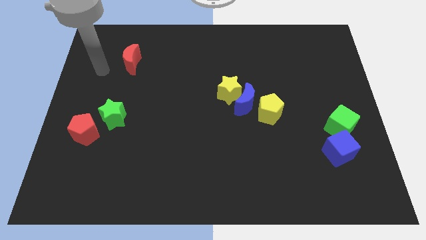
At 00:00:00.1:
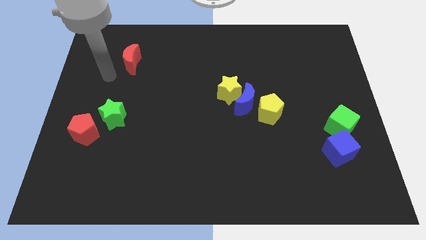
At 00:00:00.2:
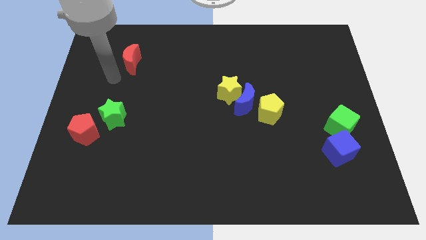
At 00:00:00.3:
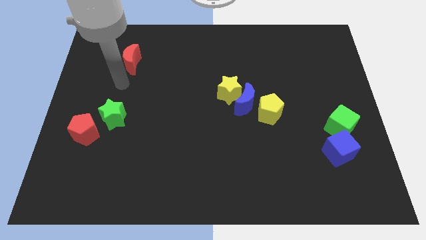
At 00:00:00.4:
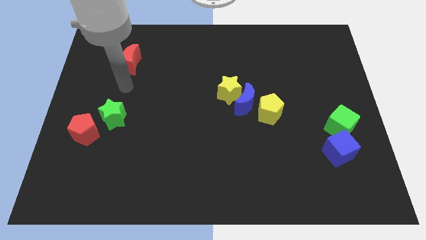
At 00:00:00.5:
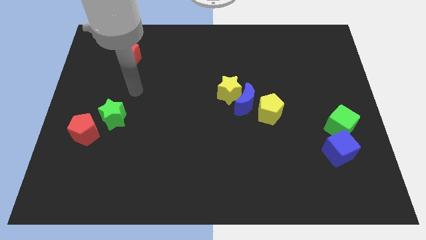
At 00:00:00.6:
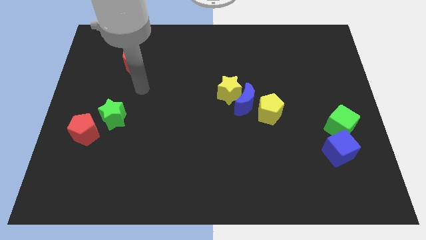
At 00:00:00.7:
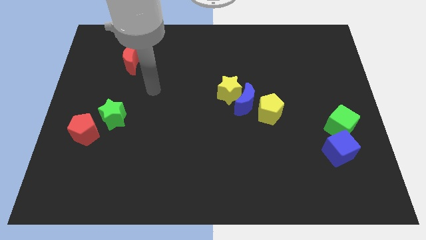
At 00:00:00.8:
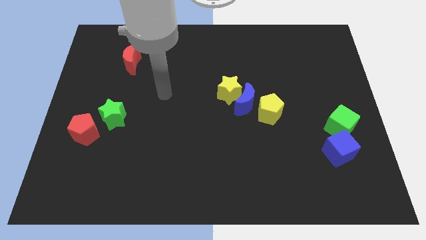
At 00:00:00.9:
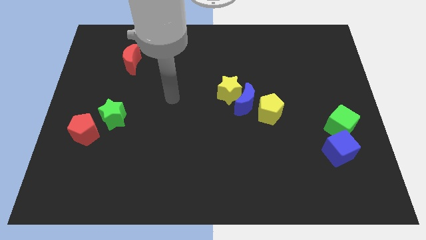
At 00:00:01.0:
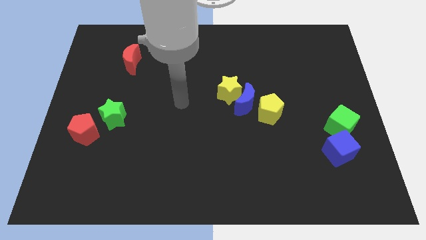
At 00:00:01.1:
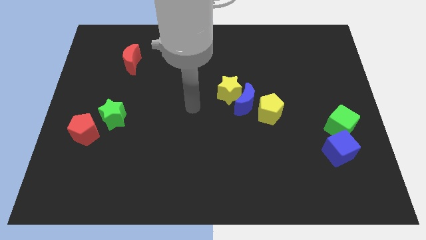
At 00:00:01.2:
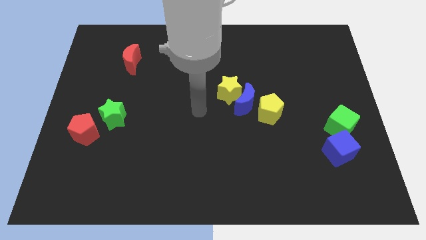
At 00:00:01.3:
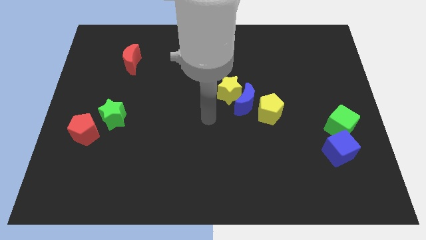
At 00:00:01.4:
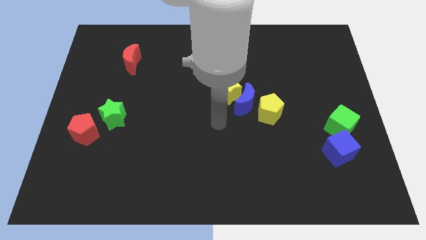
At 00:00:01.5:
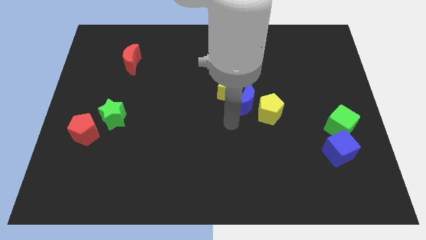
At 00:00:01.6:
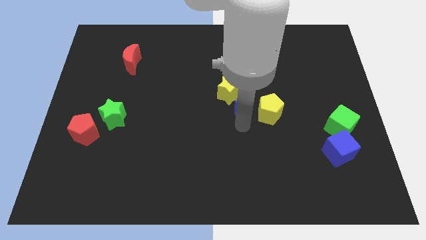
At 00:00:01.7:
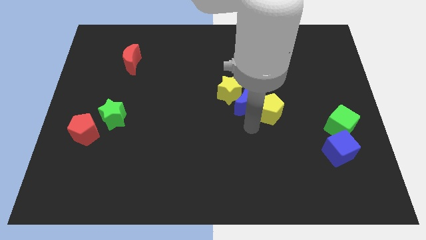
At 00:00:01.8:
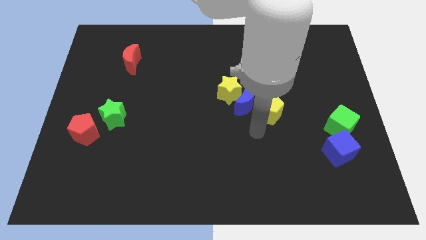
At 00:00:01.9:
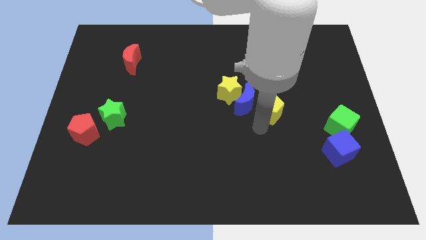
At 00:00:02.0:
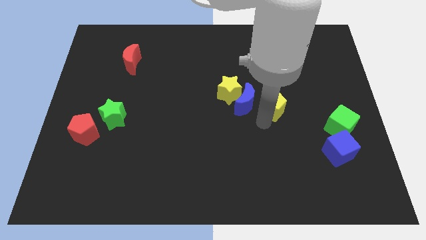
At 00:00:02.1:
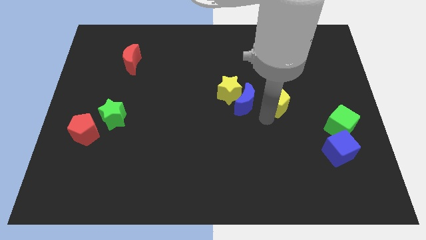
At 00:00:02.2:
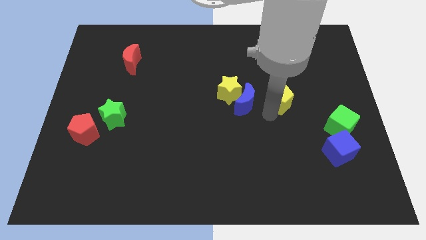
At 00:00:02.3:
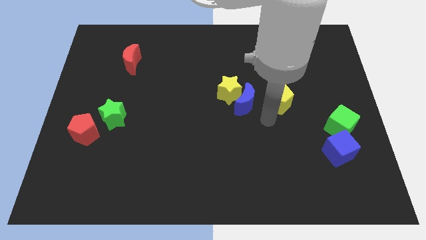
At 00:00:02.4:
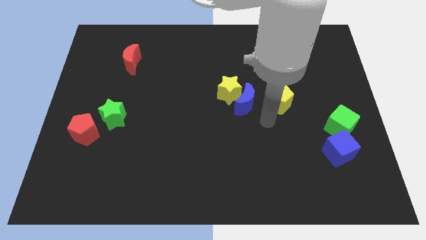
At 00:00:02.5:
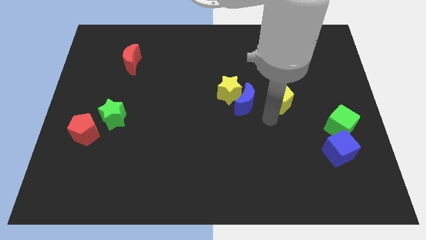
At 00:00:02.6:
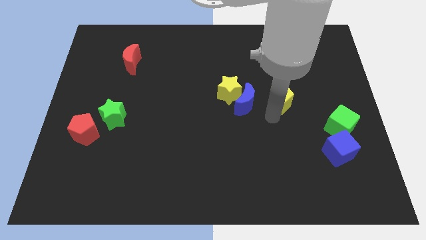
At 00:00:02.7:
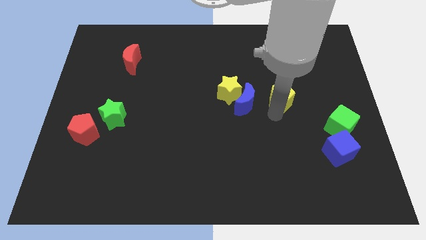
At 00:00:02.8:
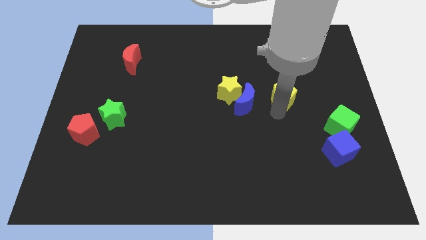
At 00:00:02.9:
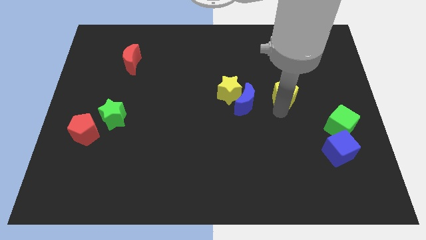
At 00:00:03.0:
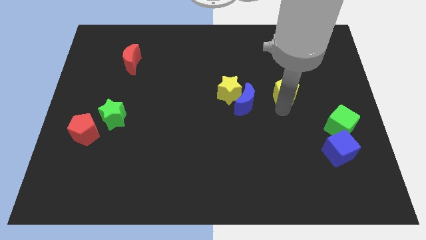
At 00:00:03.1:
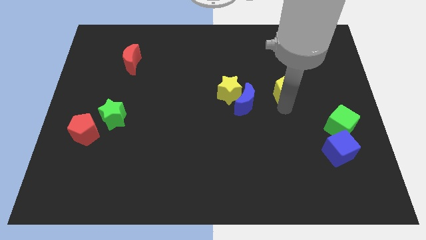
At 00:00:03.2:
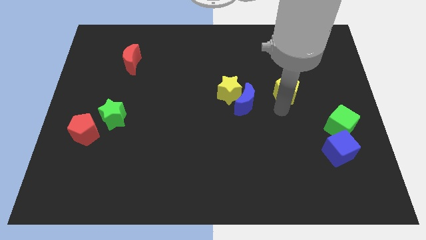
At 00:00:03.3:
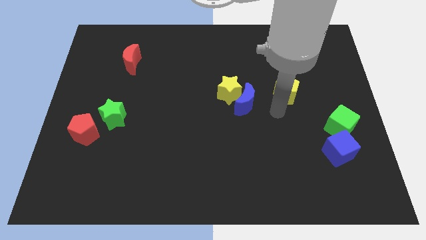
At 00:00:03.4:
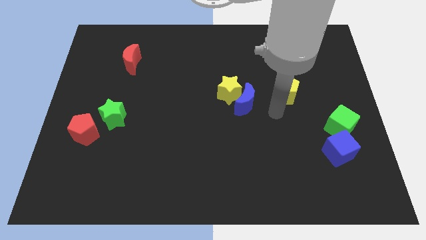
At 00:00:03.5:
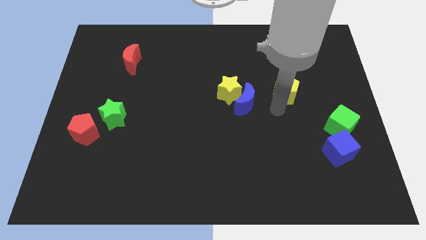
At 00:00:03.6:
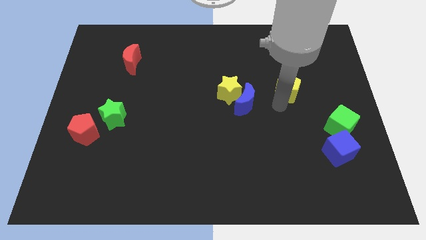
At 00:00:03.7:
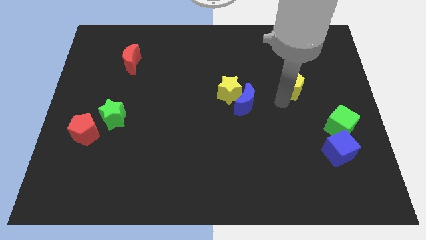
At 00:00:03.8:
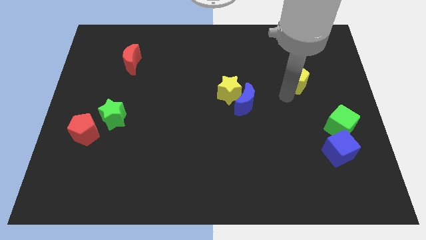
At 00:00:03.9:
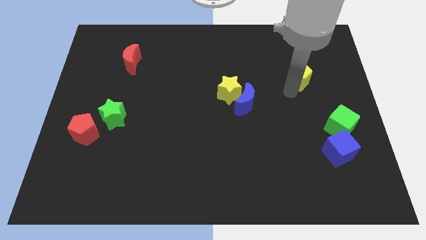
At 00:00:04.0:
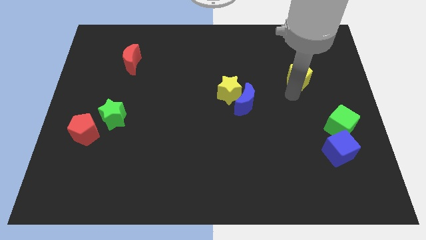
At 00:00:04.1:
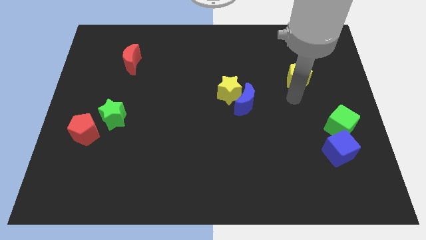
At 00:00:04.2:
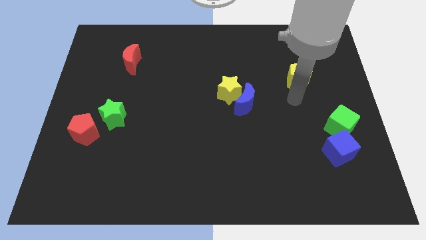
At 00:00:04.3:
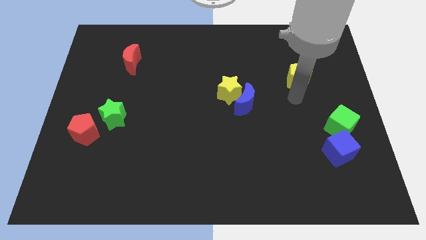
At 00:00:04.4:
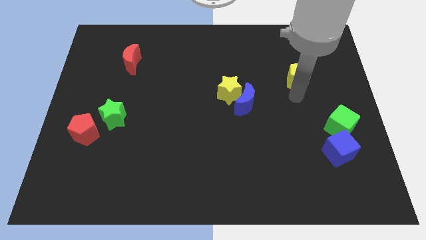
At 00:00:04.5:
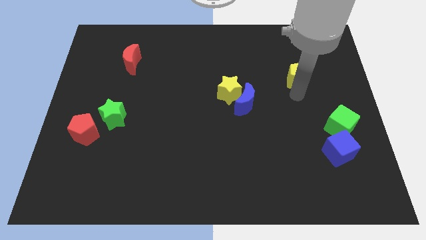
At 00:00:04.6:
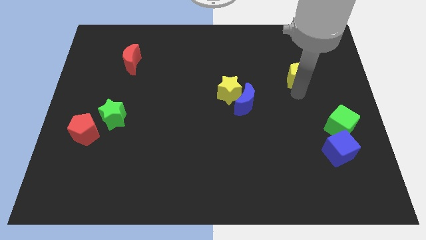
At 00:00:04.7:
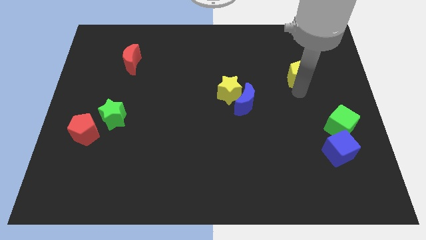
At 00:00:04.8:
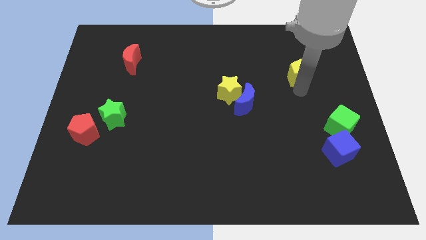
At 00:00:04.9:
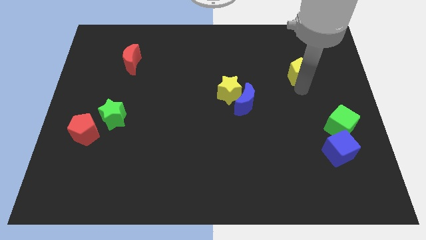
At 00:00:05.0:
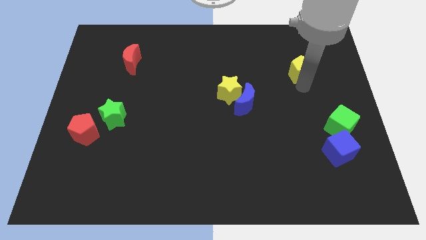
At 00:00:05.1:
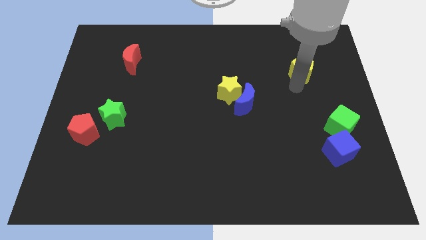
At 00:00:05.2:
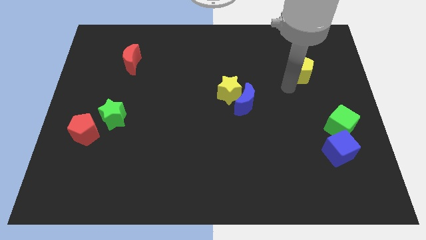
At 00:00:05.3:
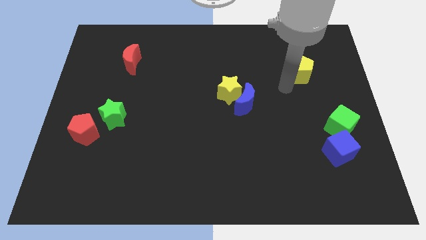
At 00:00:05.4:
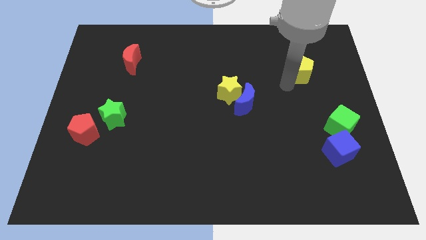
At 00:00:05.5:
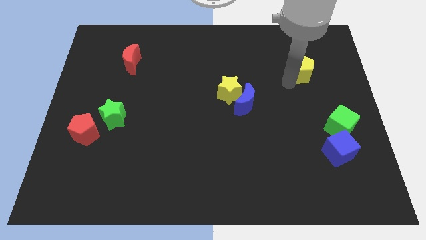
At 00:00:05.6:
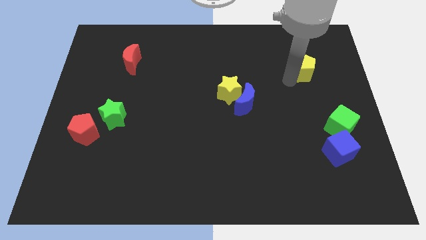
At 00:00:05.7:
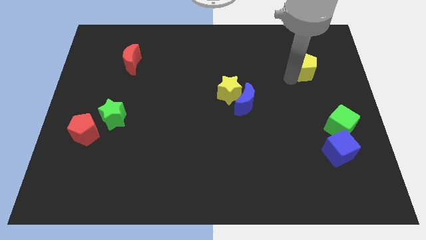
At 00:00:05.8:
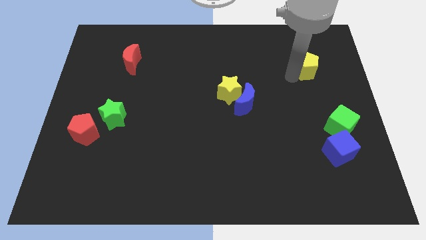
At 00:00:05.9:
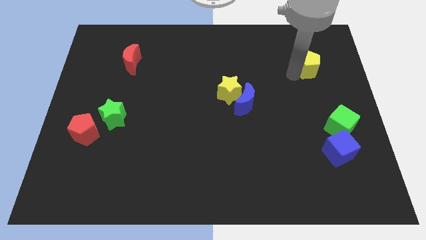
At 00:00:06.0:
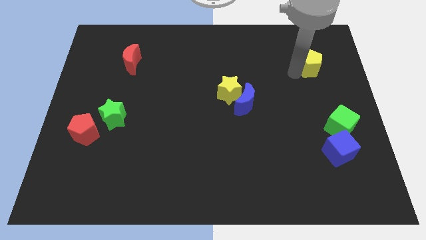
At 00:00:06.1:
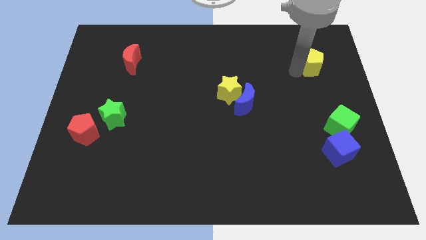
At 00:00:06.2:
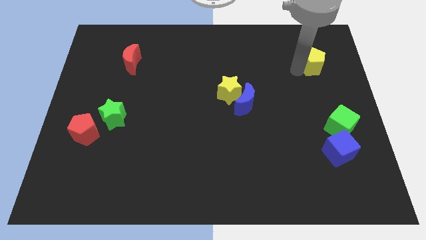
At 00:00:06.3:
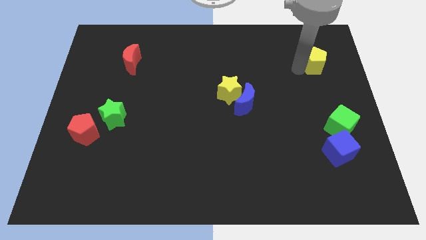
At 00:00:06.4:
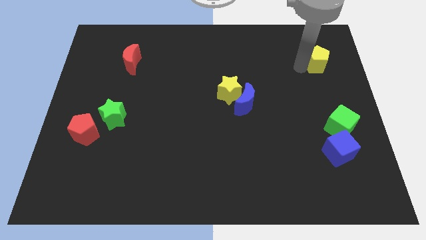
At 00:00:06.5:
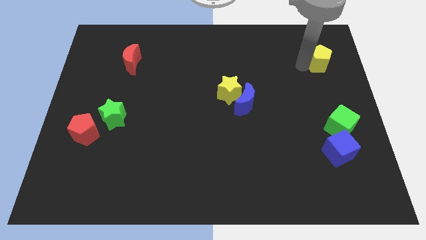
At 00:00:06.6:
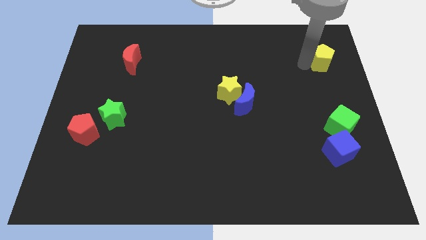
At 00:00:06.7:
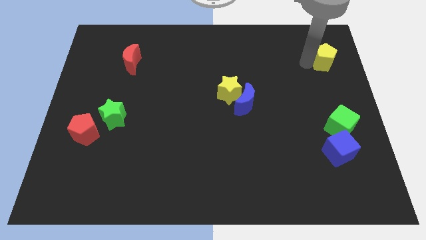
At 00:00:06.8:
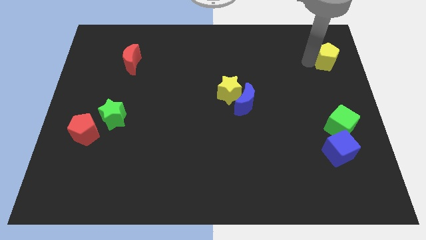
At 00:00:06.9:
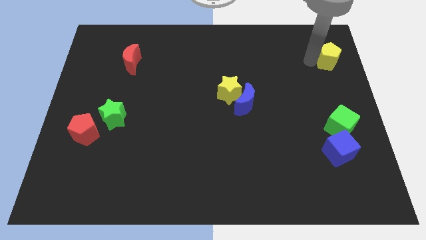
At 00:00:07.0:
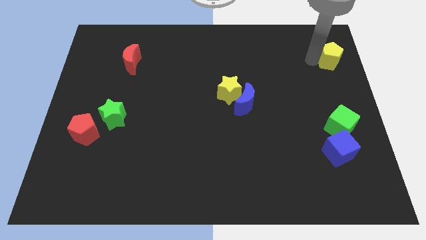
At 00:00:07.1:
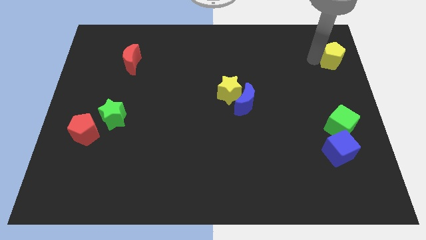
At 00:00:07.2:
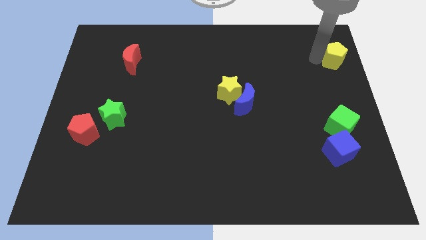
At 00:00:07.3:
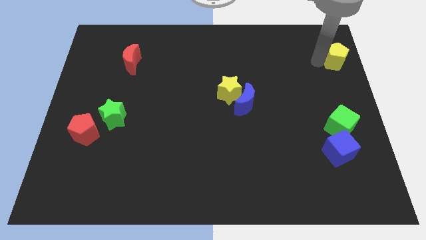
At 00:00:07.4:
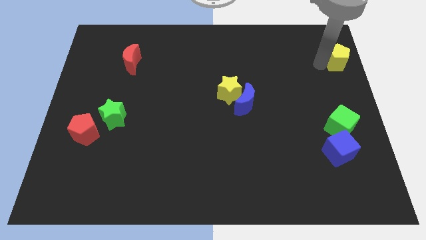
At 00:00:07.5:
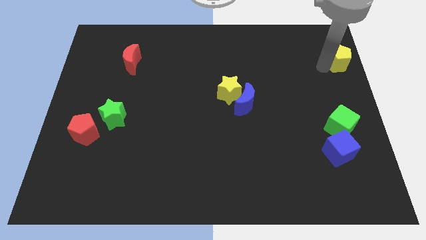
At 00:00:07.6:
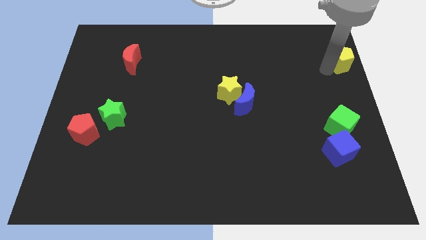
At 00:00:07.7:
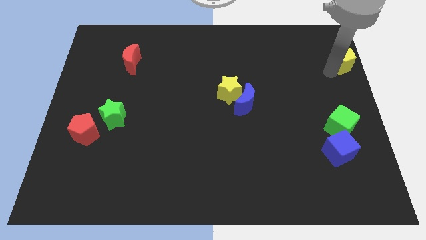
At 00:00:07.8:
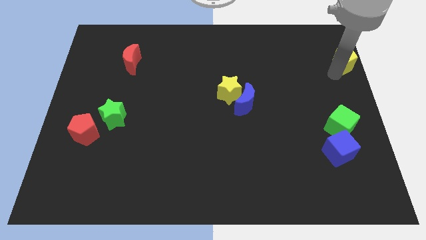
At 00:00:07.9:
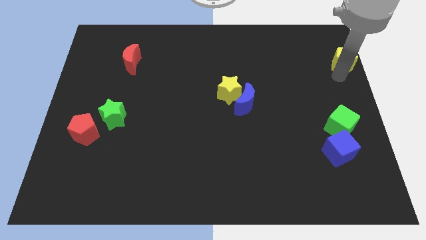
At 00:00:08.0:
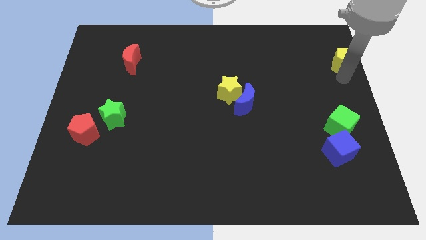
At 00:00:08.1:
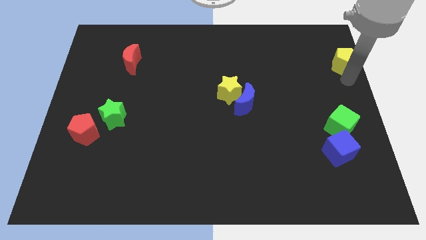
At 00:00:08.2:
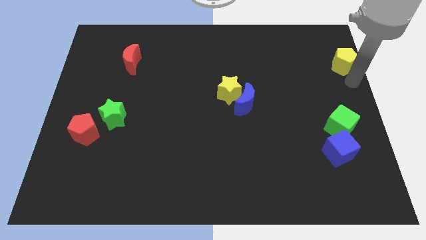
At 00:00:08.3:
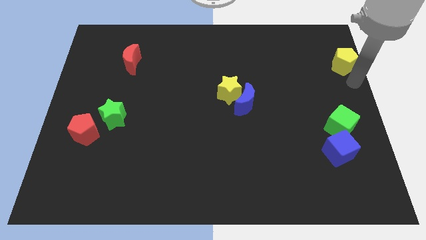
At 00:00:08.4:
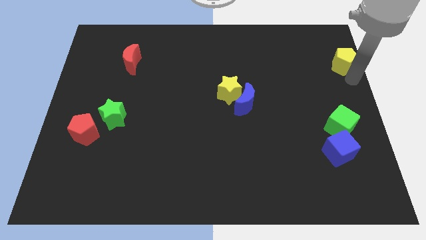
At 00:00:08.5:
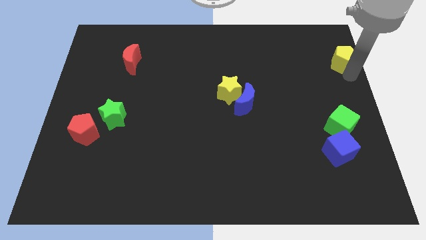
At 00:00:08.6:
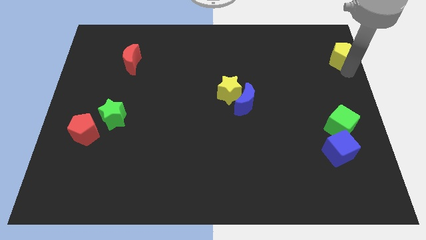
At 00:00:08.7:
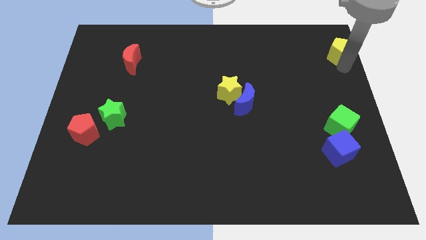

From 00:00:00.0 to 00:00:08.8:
slide the yellow pentagon to the top right corner
